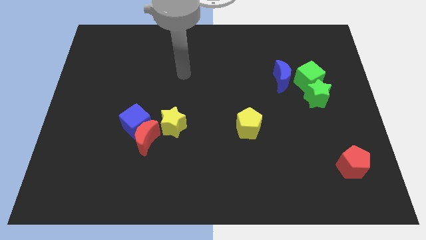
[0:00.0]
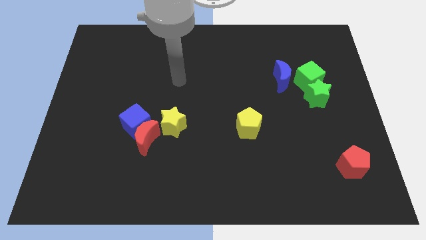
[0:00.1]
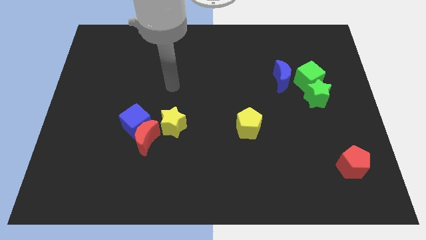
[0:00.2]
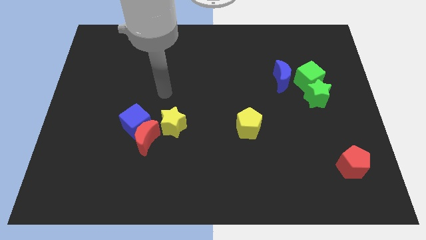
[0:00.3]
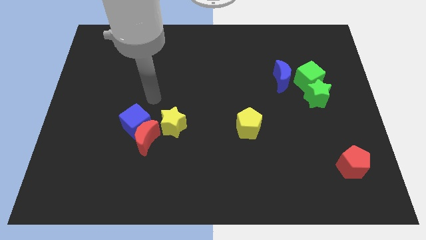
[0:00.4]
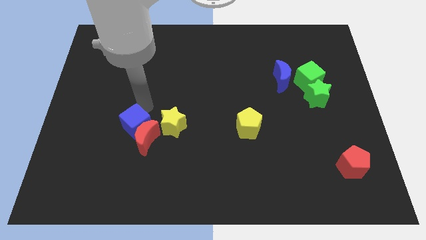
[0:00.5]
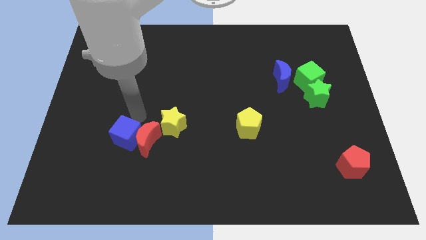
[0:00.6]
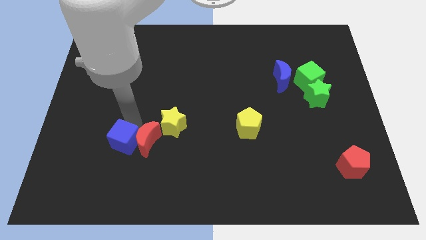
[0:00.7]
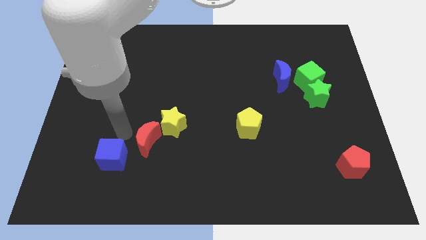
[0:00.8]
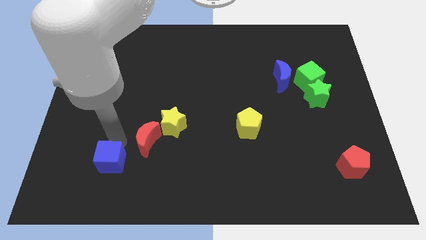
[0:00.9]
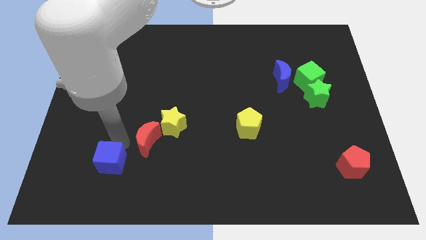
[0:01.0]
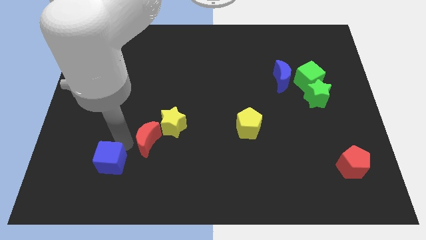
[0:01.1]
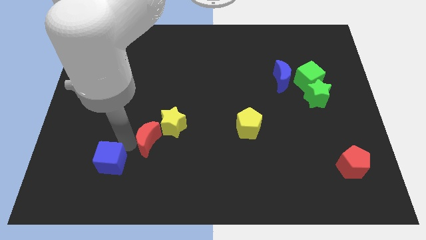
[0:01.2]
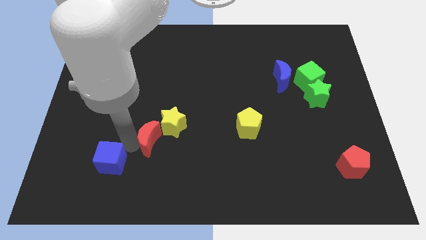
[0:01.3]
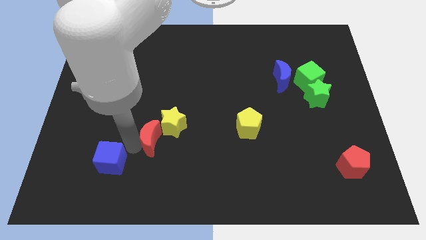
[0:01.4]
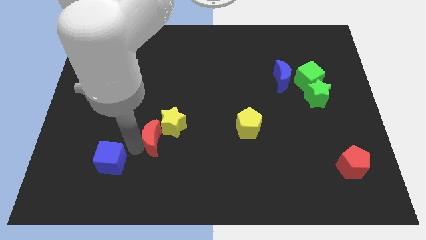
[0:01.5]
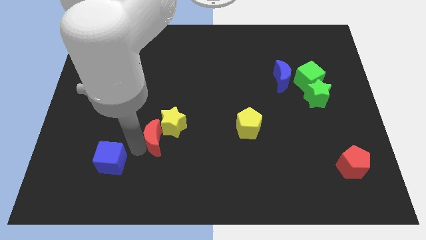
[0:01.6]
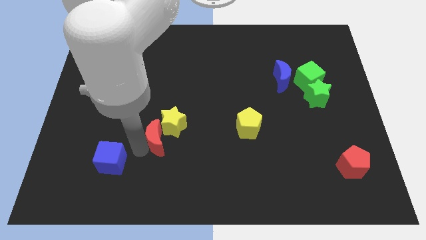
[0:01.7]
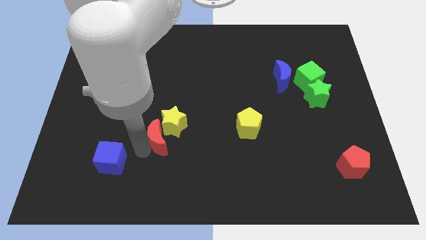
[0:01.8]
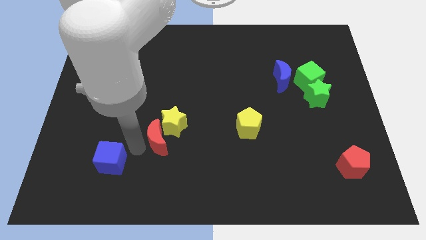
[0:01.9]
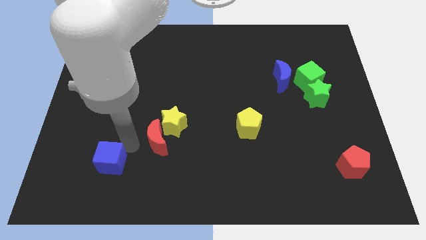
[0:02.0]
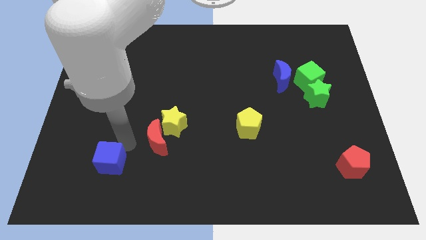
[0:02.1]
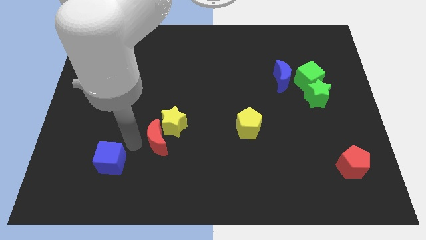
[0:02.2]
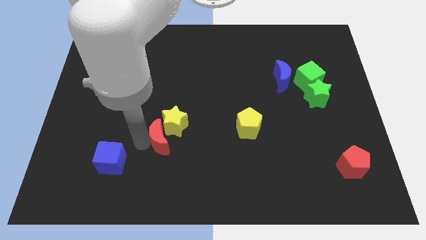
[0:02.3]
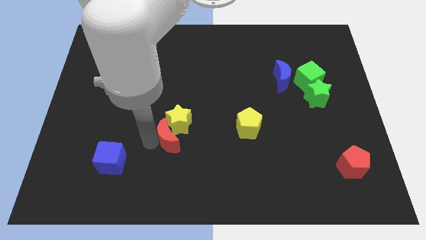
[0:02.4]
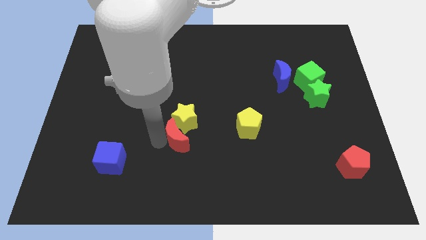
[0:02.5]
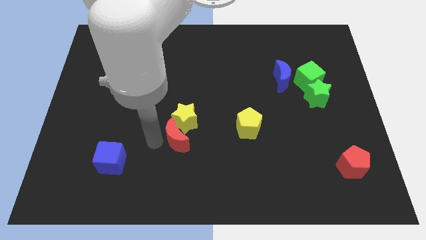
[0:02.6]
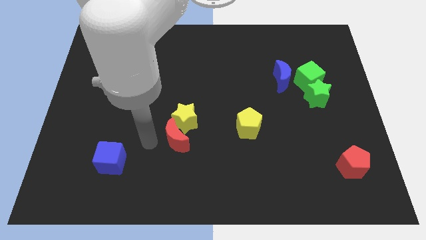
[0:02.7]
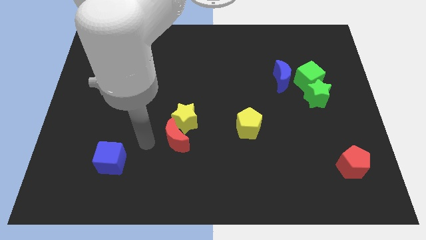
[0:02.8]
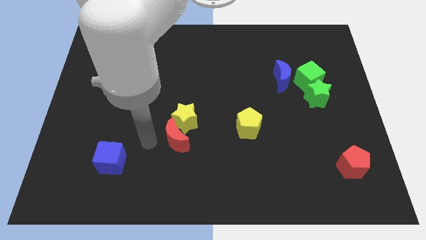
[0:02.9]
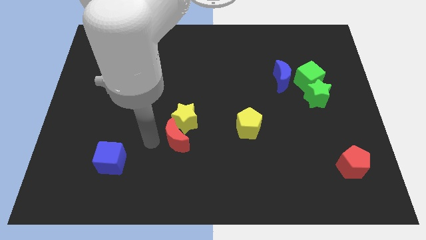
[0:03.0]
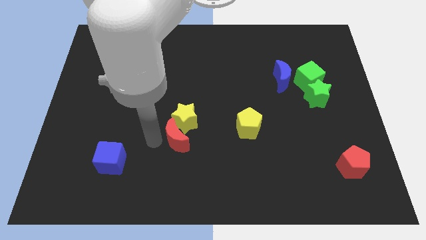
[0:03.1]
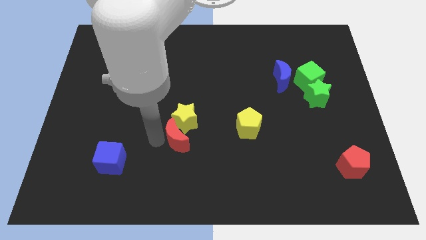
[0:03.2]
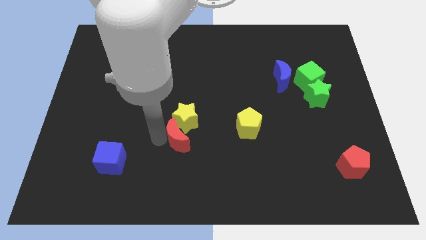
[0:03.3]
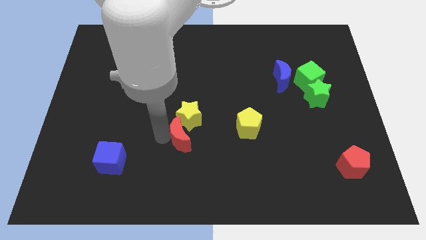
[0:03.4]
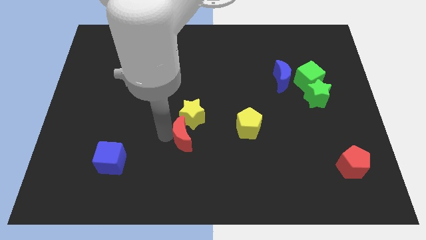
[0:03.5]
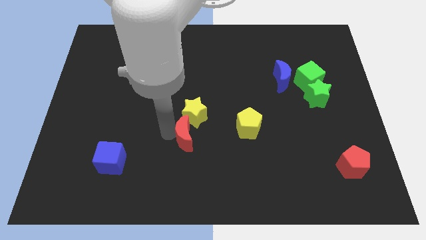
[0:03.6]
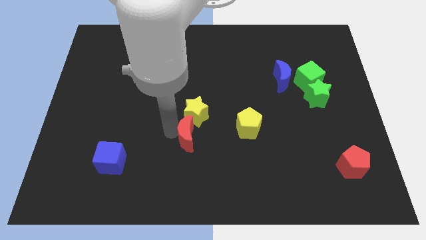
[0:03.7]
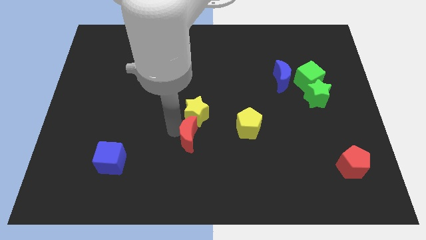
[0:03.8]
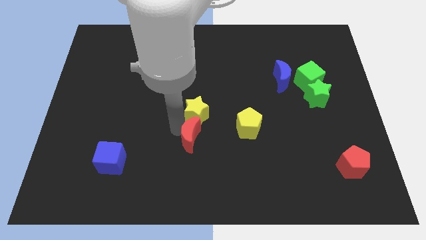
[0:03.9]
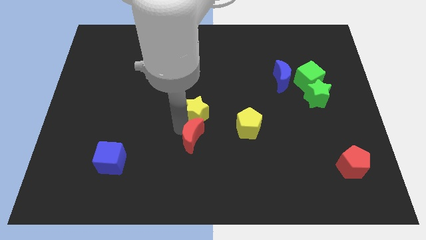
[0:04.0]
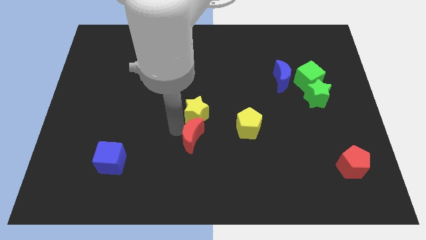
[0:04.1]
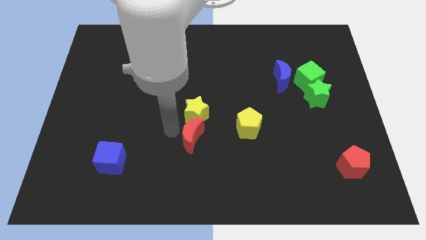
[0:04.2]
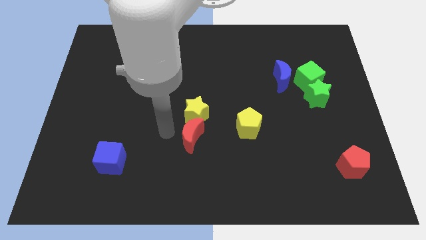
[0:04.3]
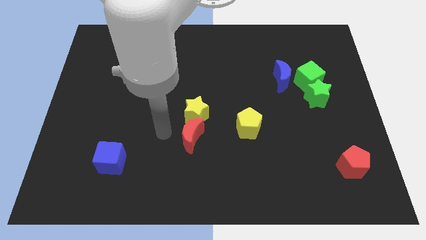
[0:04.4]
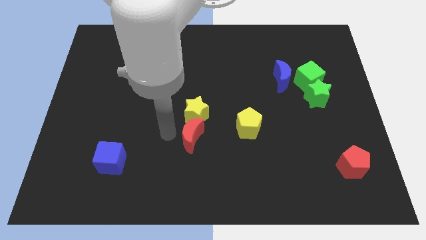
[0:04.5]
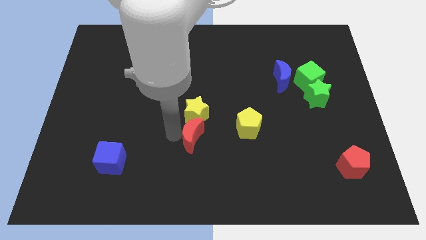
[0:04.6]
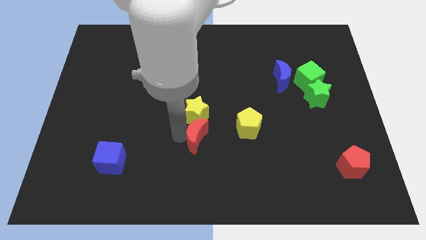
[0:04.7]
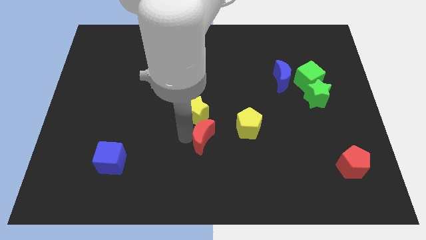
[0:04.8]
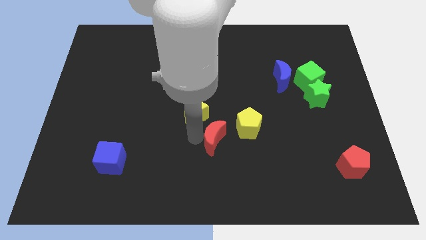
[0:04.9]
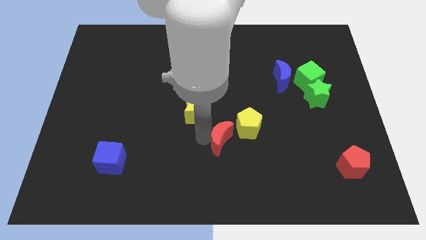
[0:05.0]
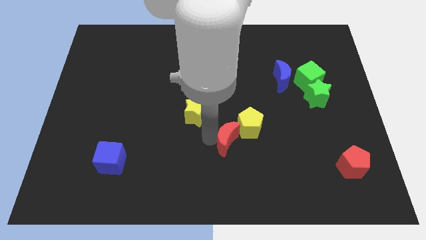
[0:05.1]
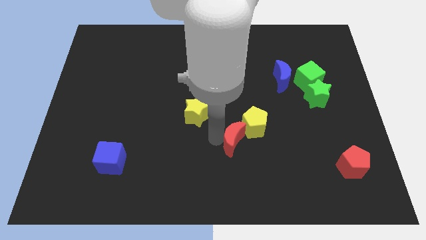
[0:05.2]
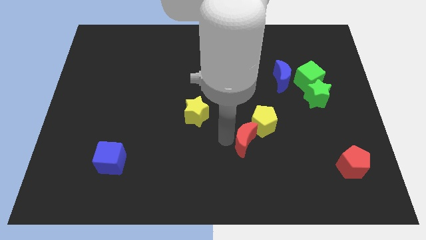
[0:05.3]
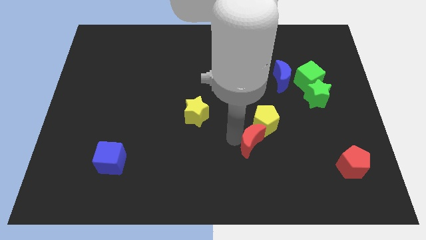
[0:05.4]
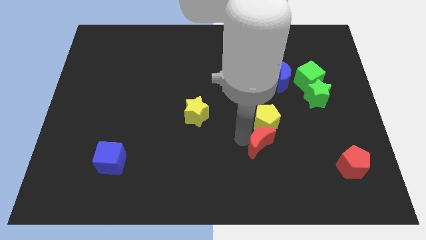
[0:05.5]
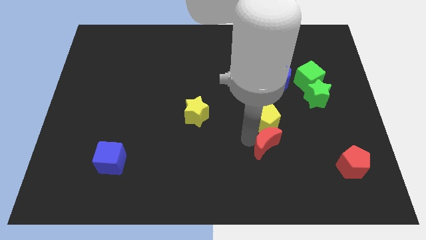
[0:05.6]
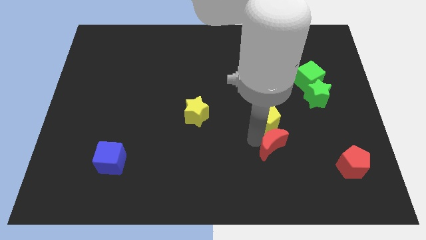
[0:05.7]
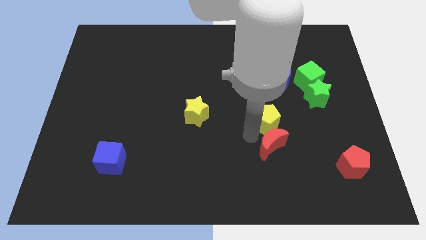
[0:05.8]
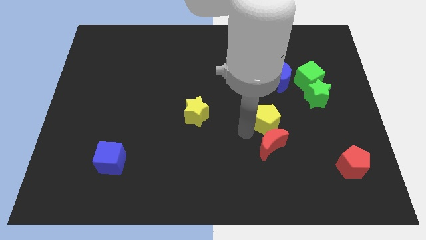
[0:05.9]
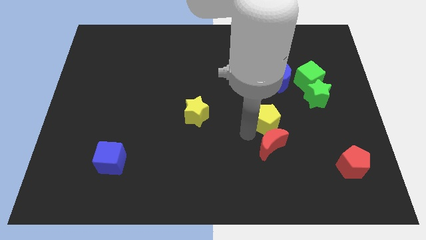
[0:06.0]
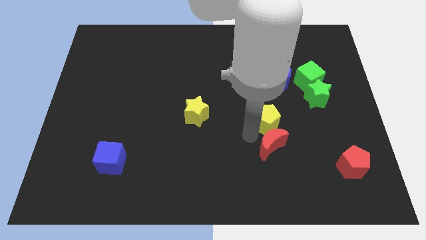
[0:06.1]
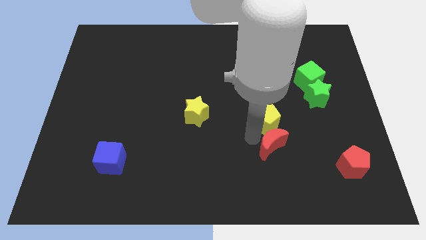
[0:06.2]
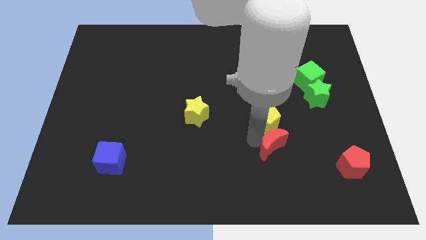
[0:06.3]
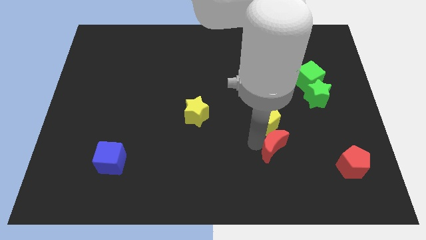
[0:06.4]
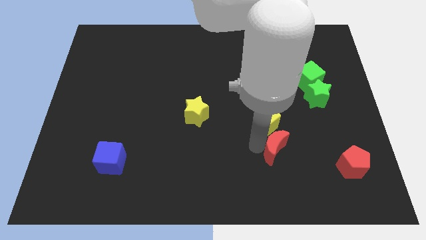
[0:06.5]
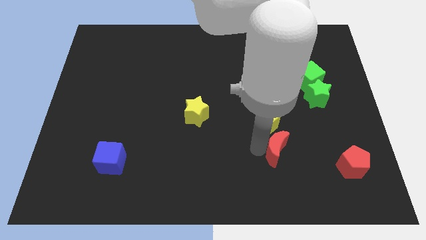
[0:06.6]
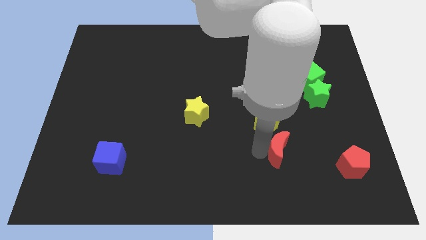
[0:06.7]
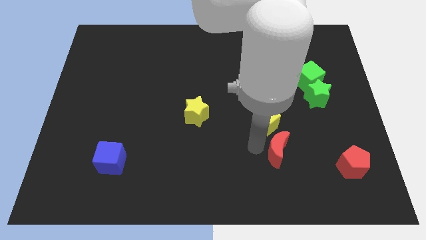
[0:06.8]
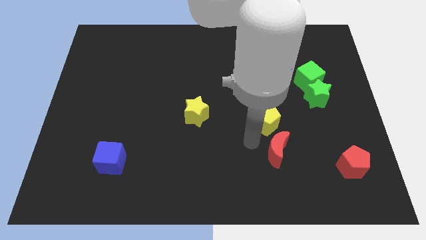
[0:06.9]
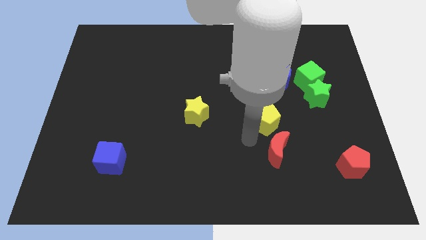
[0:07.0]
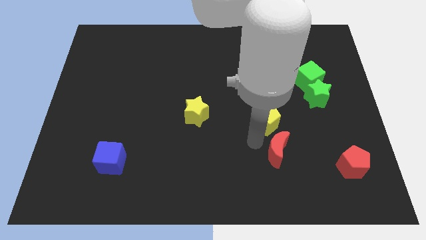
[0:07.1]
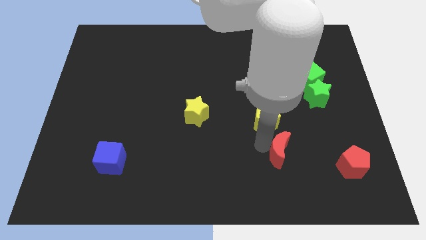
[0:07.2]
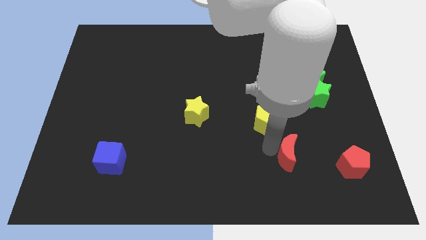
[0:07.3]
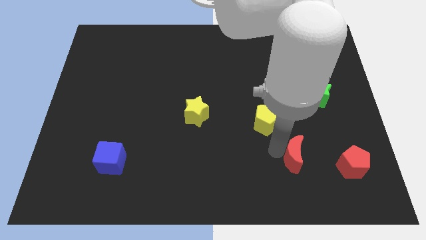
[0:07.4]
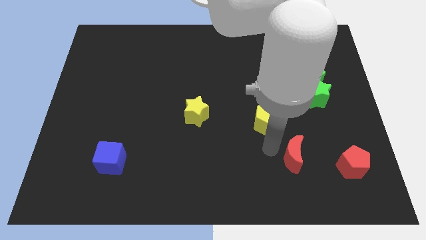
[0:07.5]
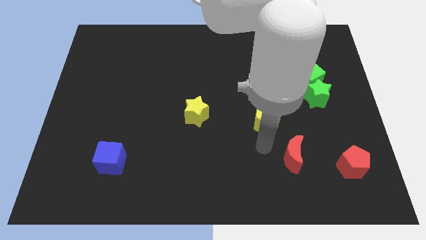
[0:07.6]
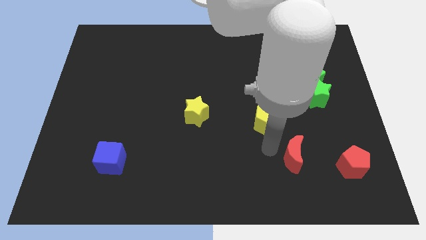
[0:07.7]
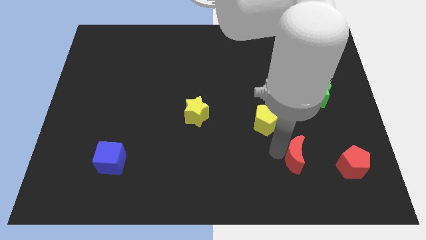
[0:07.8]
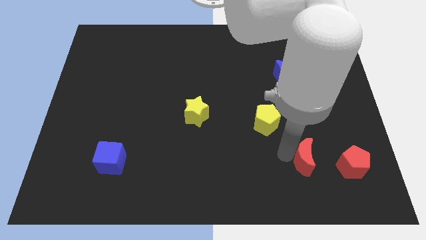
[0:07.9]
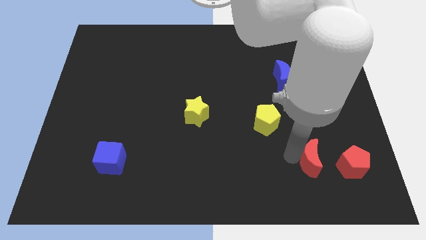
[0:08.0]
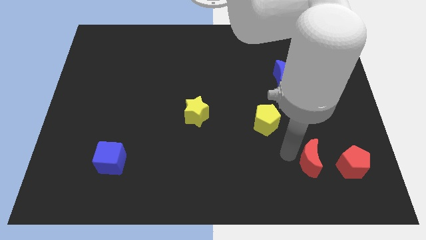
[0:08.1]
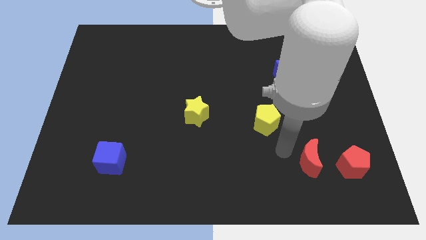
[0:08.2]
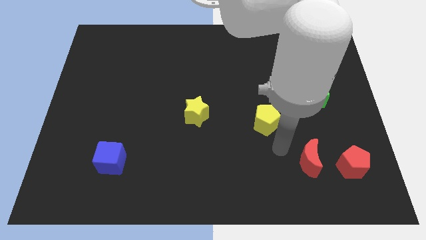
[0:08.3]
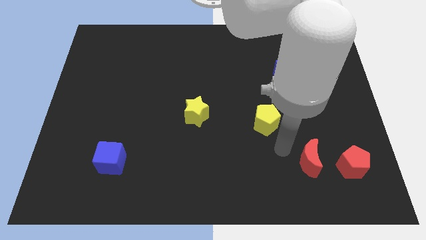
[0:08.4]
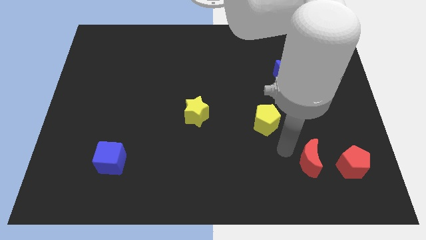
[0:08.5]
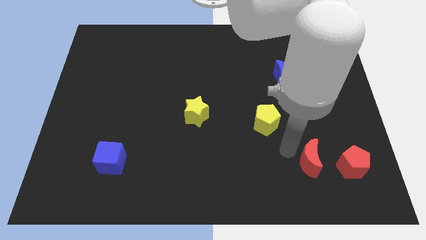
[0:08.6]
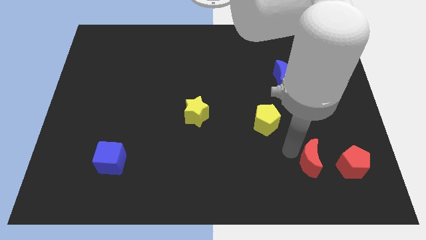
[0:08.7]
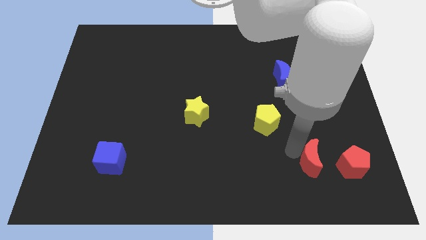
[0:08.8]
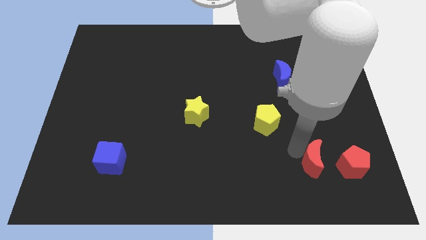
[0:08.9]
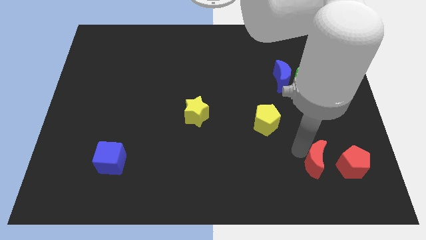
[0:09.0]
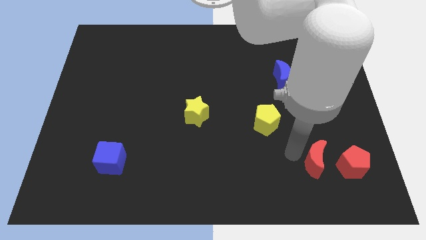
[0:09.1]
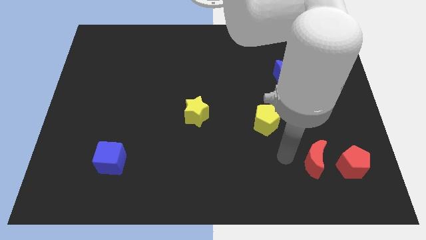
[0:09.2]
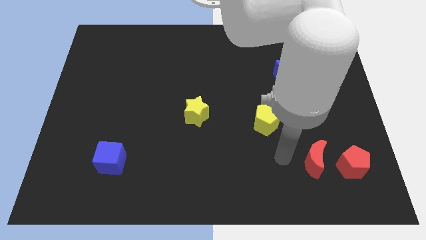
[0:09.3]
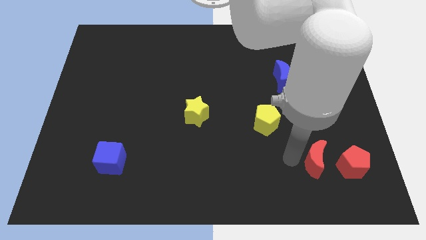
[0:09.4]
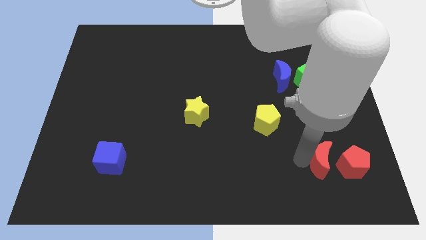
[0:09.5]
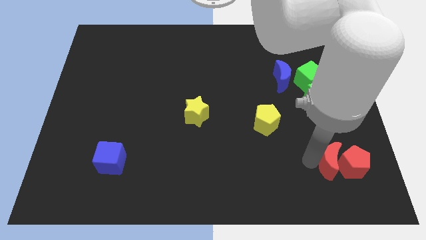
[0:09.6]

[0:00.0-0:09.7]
push the red moon to the red pentagon
